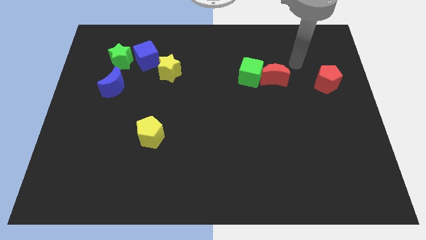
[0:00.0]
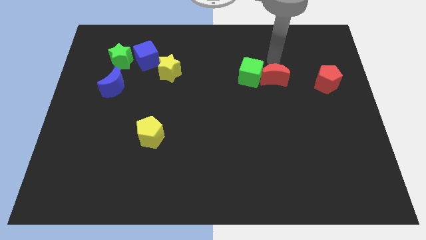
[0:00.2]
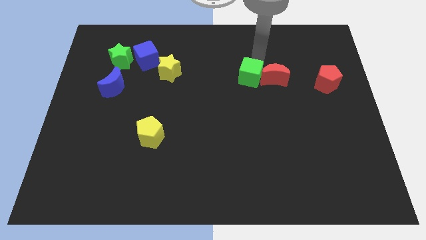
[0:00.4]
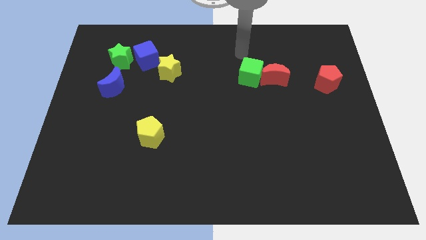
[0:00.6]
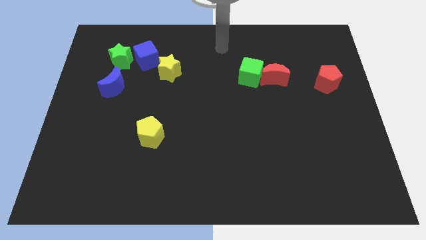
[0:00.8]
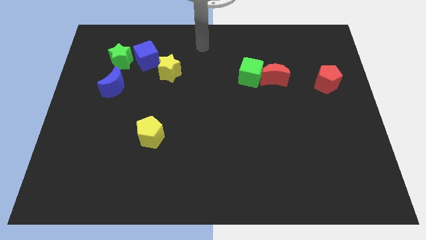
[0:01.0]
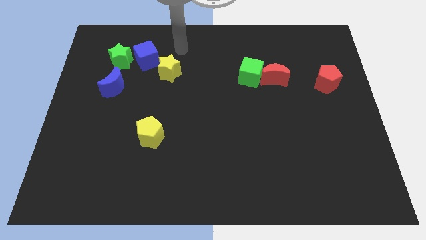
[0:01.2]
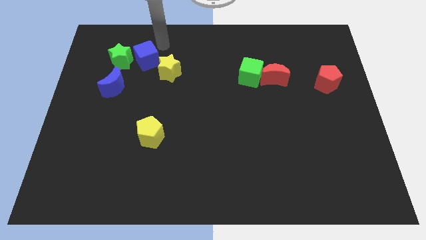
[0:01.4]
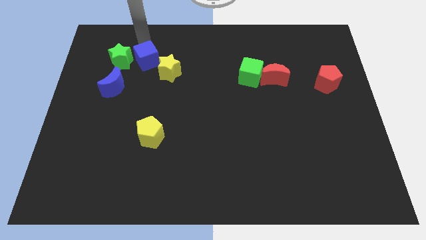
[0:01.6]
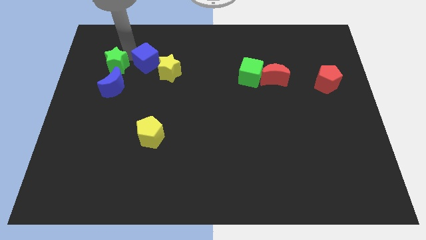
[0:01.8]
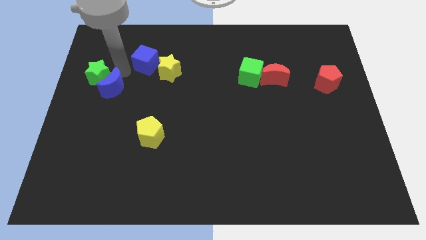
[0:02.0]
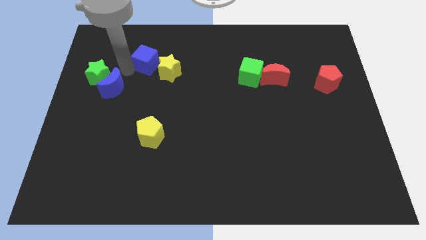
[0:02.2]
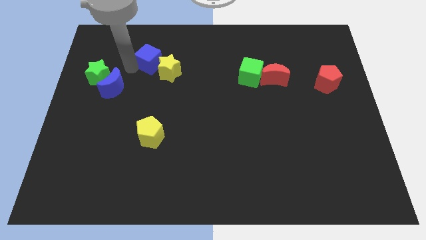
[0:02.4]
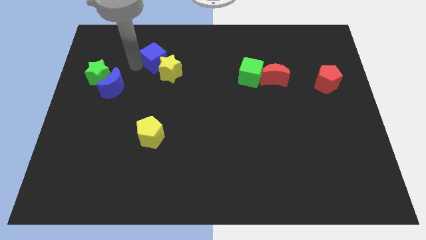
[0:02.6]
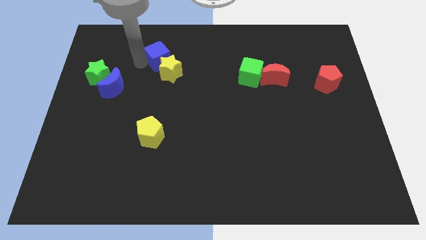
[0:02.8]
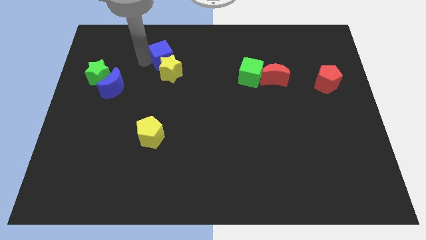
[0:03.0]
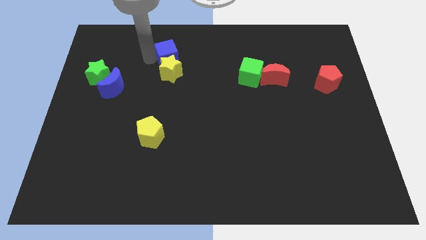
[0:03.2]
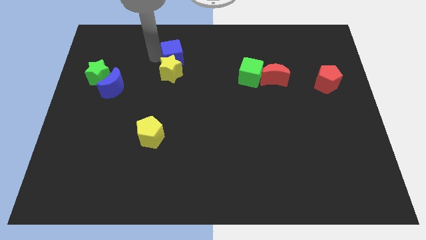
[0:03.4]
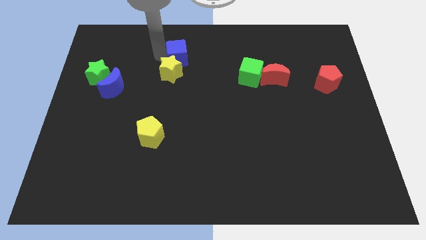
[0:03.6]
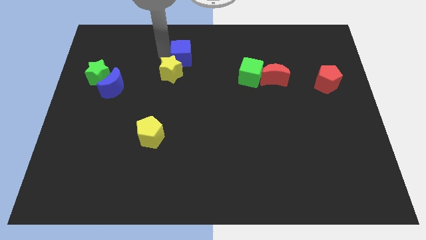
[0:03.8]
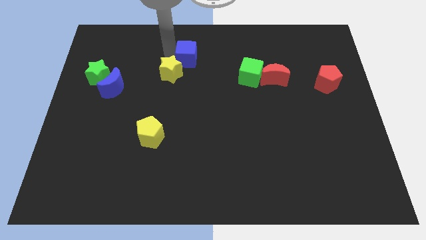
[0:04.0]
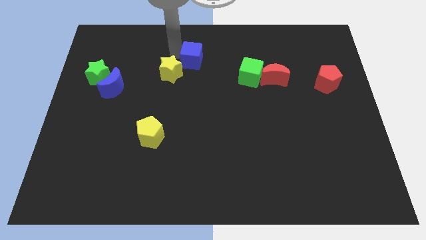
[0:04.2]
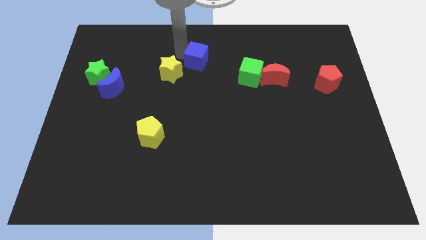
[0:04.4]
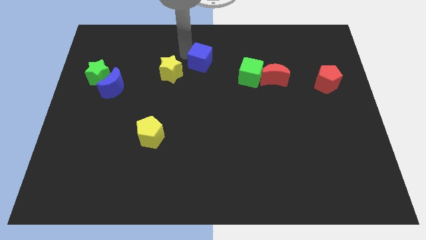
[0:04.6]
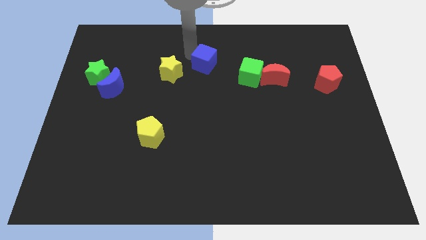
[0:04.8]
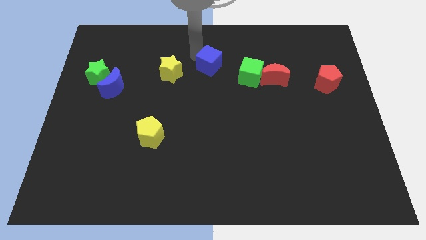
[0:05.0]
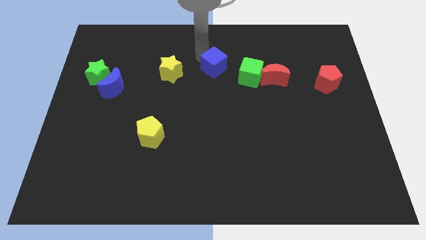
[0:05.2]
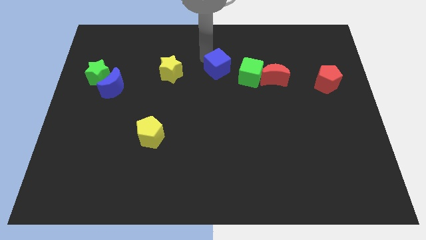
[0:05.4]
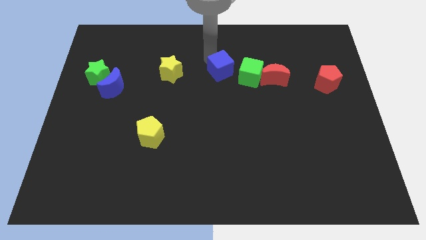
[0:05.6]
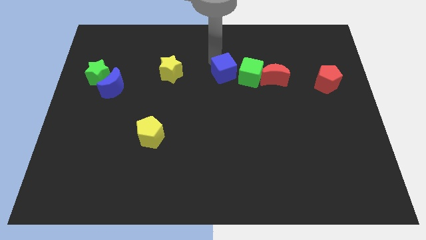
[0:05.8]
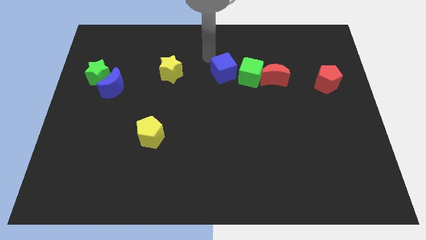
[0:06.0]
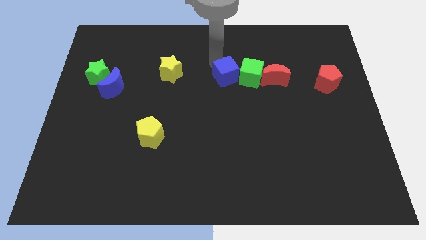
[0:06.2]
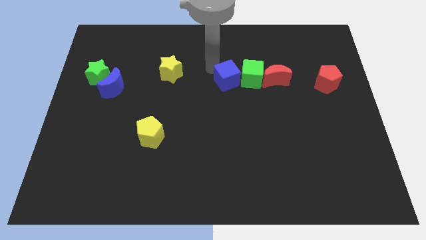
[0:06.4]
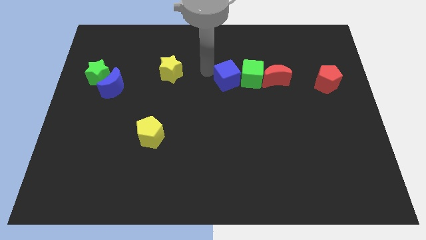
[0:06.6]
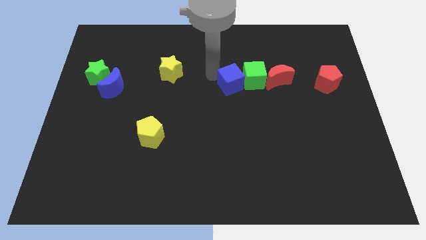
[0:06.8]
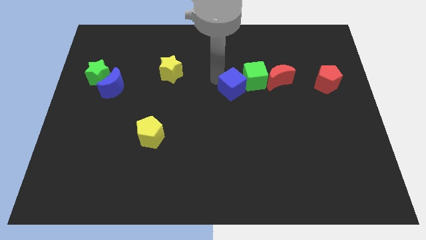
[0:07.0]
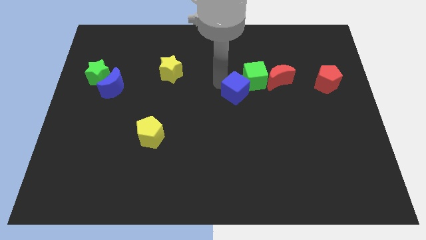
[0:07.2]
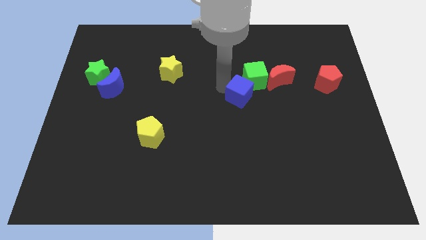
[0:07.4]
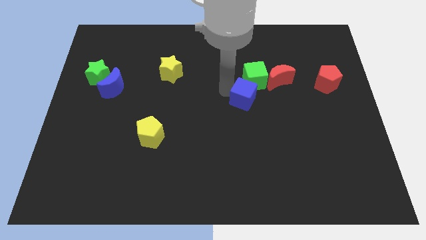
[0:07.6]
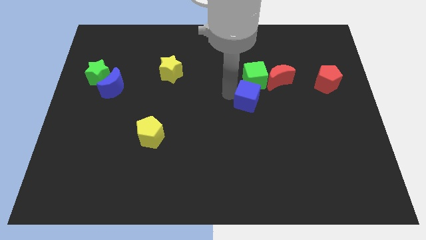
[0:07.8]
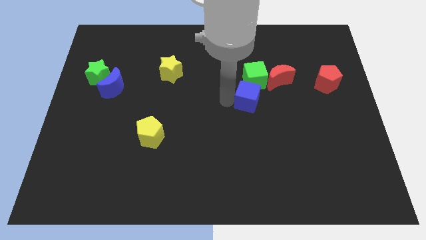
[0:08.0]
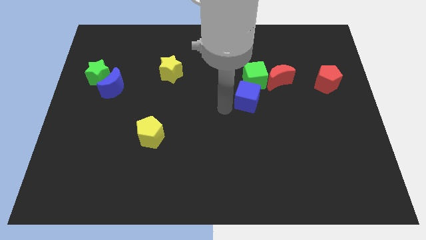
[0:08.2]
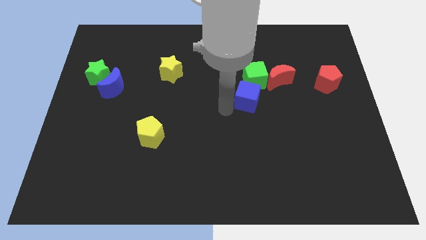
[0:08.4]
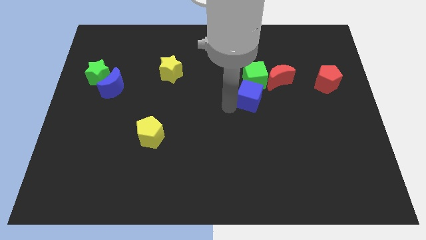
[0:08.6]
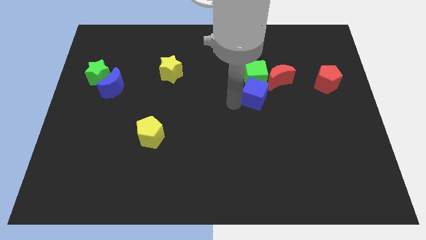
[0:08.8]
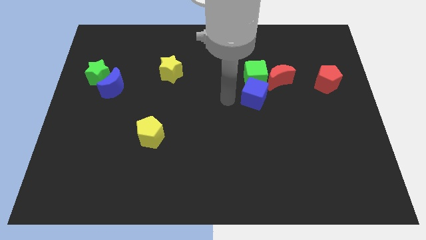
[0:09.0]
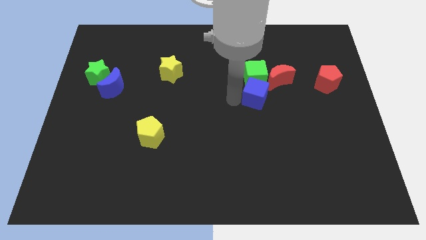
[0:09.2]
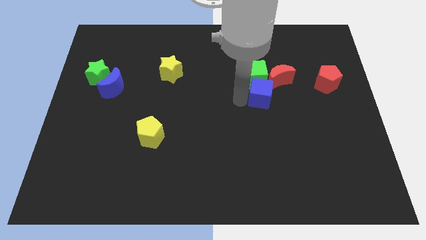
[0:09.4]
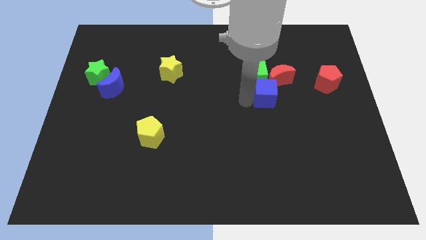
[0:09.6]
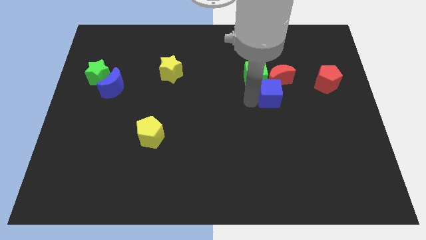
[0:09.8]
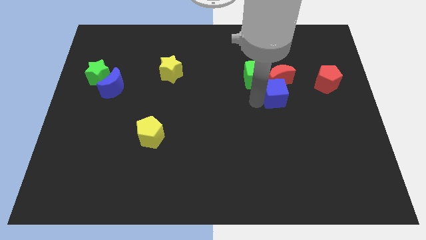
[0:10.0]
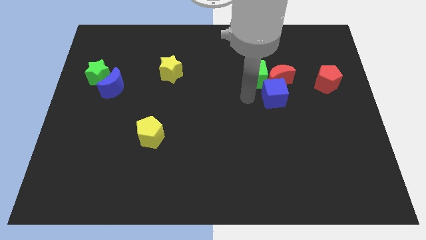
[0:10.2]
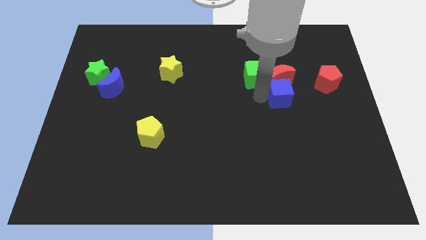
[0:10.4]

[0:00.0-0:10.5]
slide the blue cube to the bottom right of the red moon

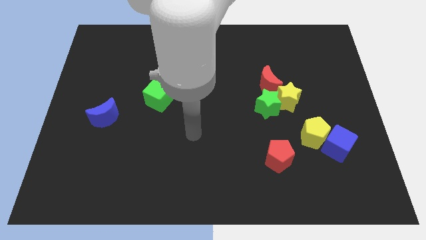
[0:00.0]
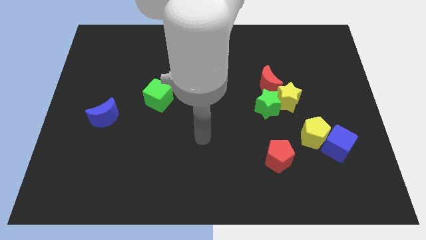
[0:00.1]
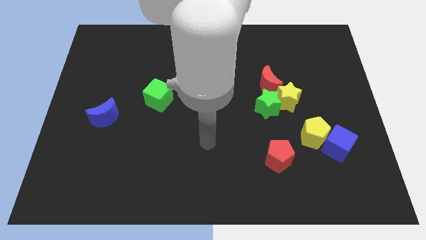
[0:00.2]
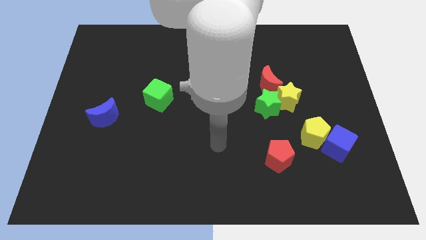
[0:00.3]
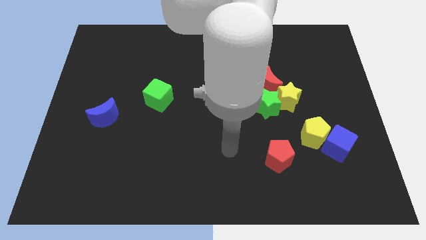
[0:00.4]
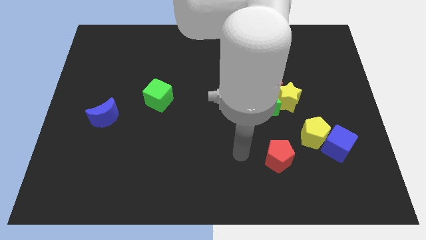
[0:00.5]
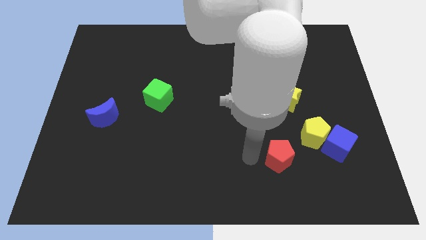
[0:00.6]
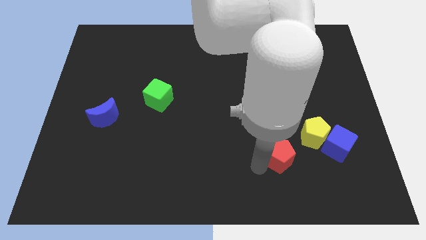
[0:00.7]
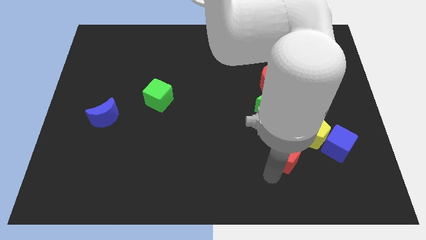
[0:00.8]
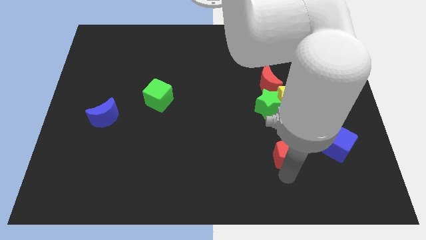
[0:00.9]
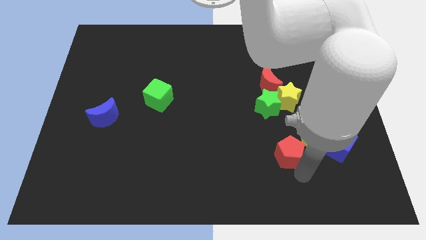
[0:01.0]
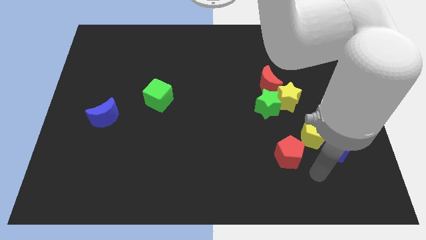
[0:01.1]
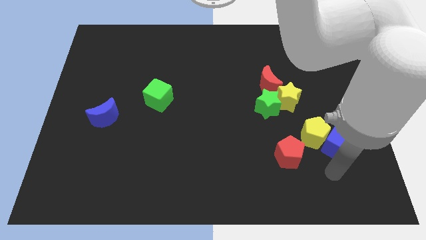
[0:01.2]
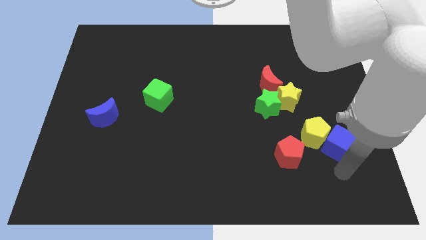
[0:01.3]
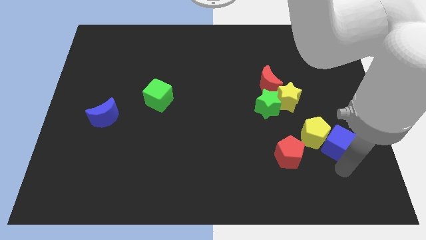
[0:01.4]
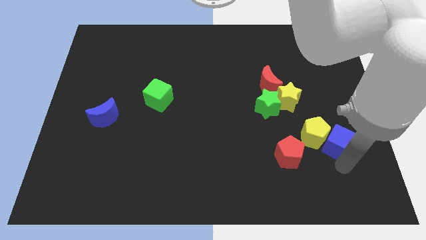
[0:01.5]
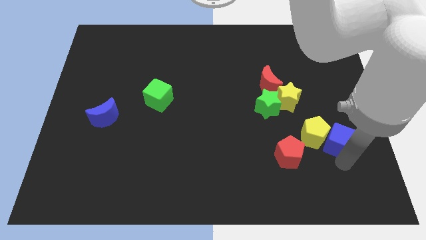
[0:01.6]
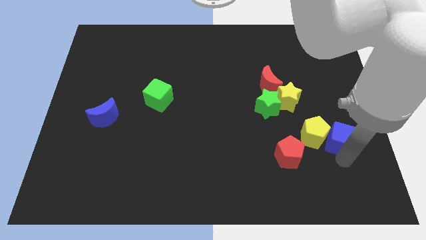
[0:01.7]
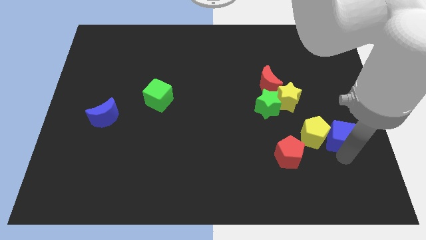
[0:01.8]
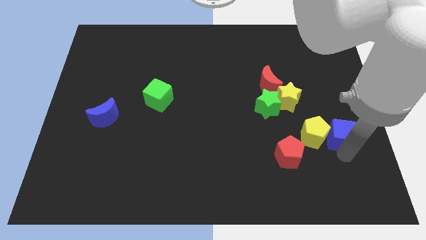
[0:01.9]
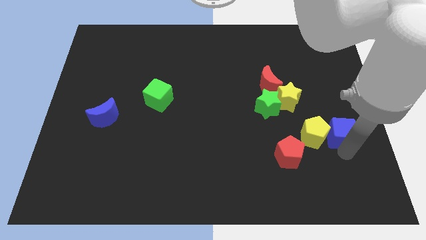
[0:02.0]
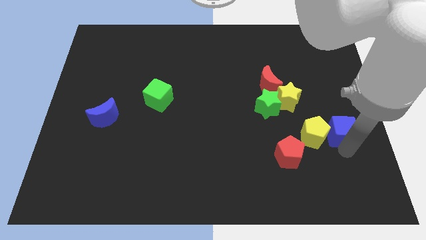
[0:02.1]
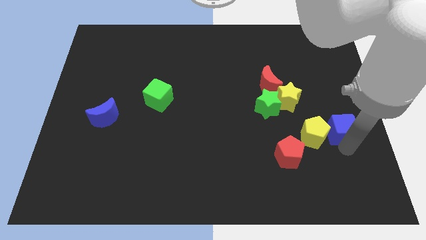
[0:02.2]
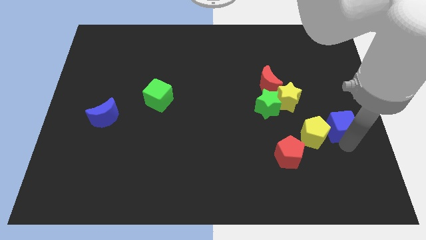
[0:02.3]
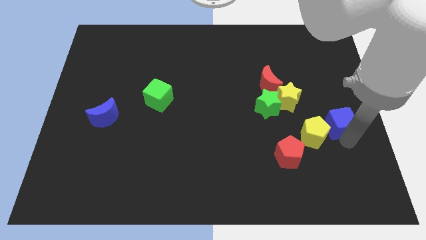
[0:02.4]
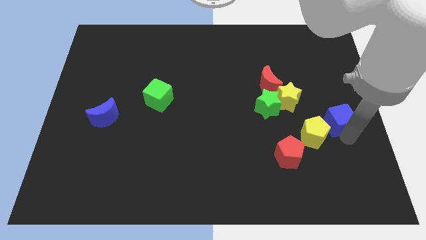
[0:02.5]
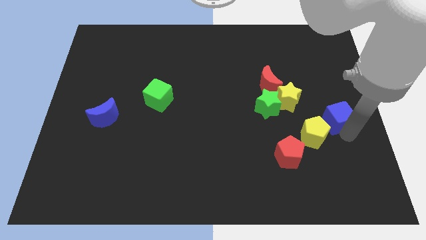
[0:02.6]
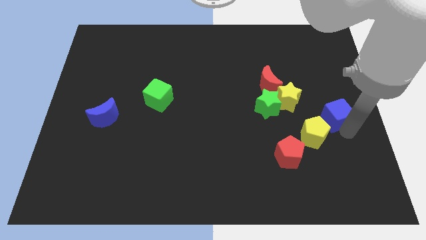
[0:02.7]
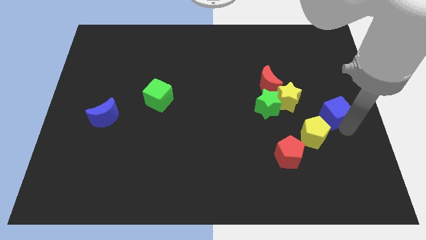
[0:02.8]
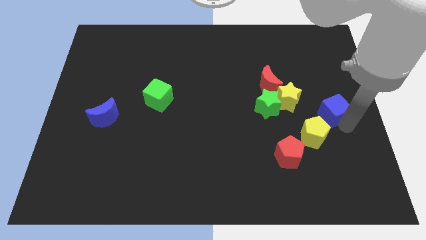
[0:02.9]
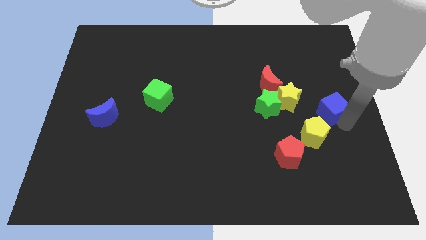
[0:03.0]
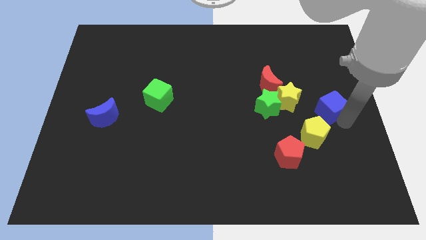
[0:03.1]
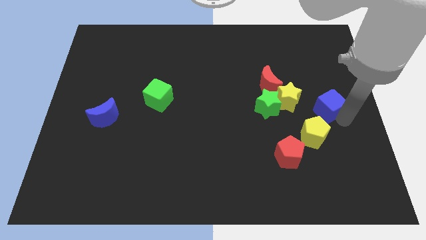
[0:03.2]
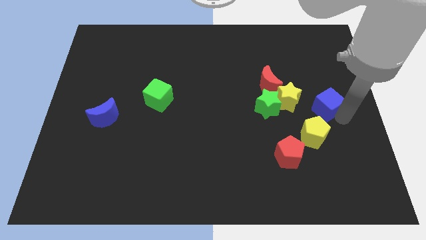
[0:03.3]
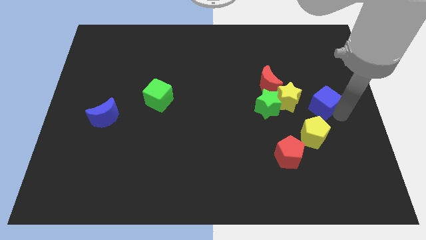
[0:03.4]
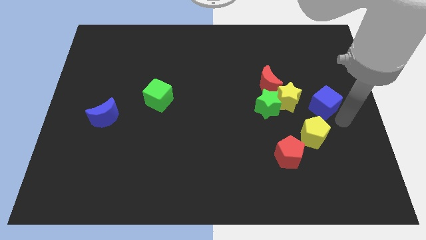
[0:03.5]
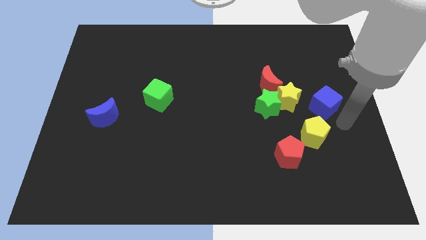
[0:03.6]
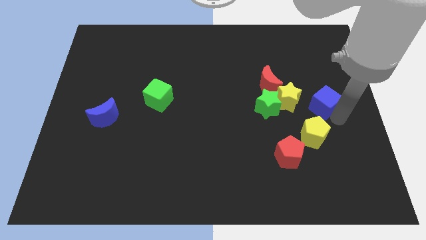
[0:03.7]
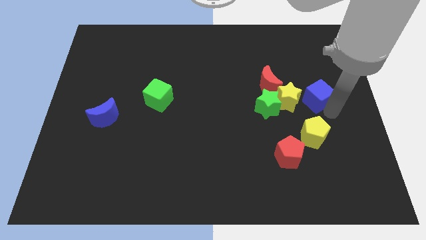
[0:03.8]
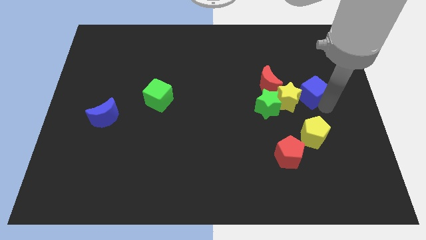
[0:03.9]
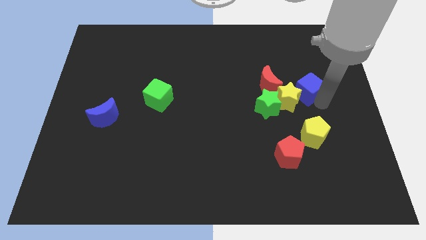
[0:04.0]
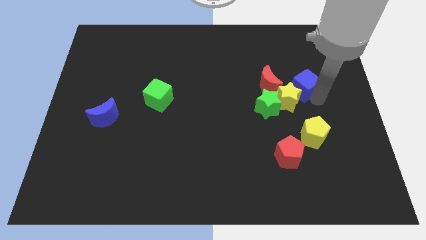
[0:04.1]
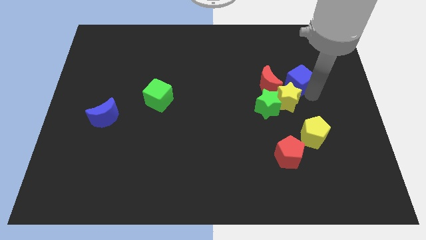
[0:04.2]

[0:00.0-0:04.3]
move the blue cube diagonally up and to the right of the red moon
